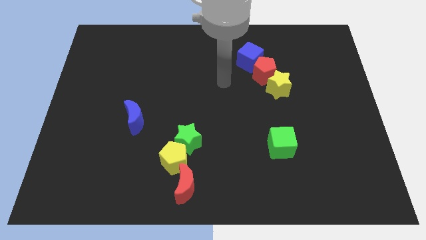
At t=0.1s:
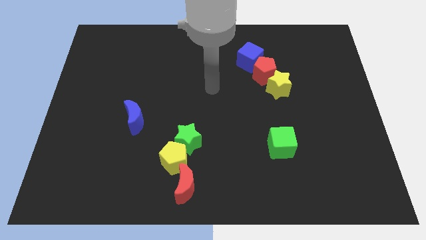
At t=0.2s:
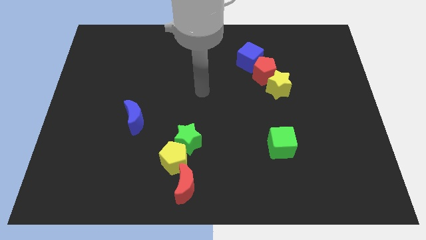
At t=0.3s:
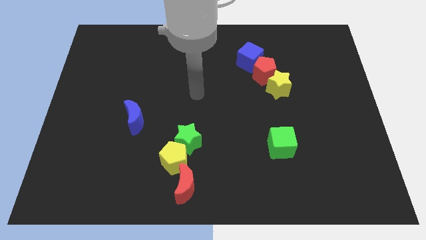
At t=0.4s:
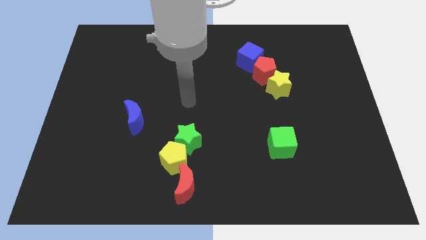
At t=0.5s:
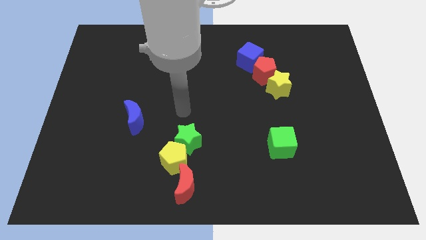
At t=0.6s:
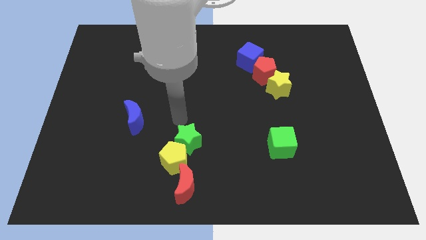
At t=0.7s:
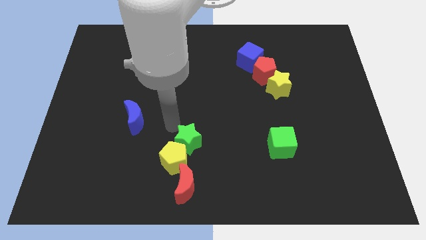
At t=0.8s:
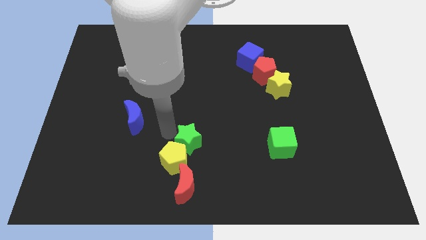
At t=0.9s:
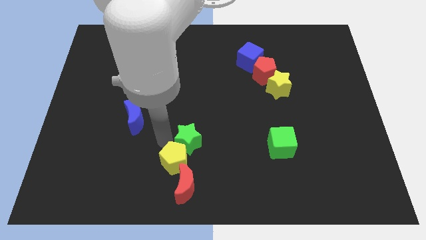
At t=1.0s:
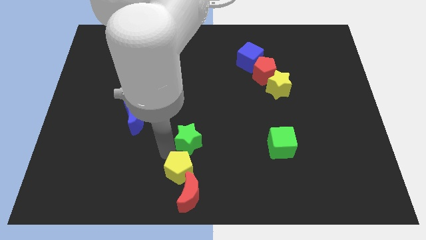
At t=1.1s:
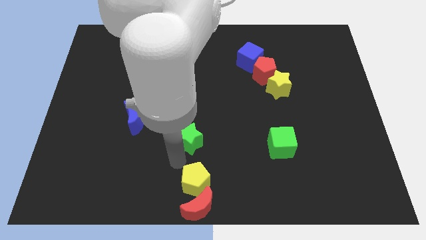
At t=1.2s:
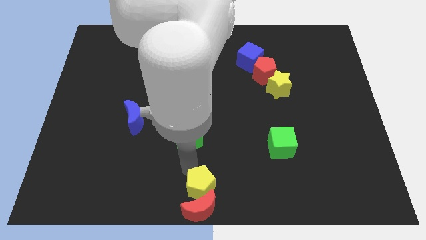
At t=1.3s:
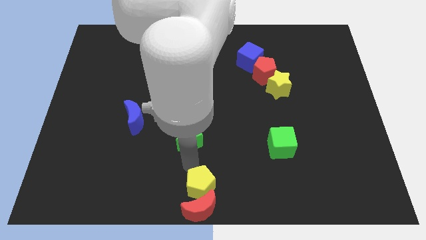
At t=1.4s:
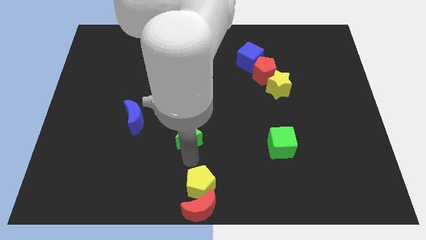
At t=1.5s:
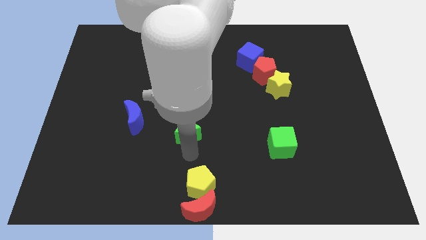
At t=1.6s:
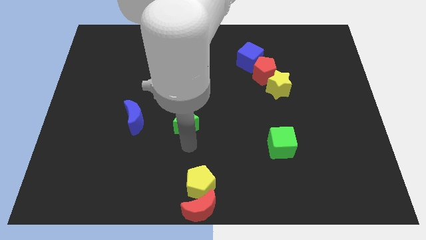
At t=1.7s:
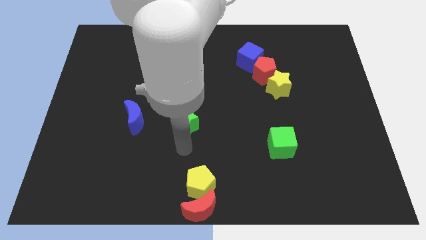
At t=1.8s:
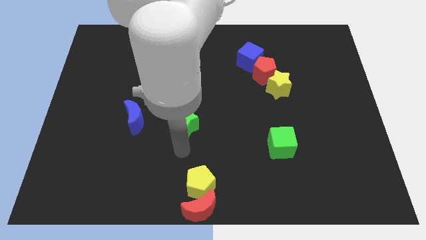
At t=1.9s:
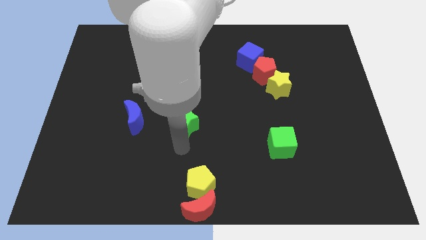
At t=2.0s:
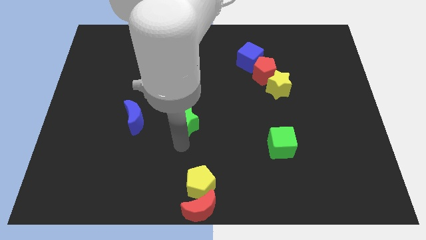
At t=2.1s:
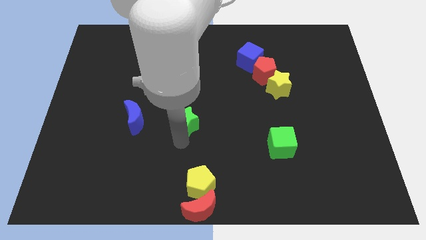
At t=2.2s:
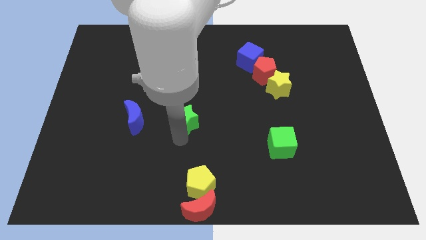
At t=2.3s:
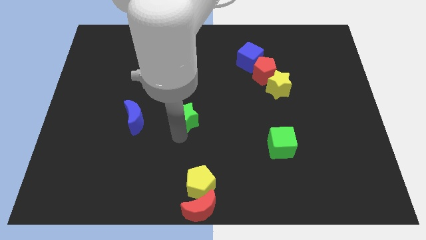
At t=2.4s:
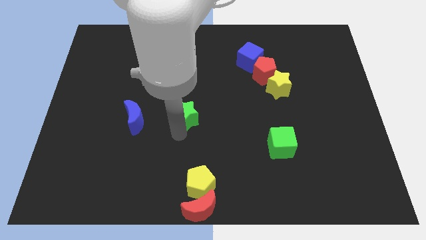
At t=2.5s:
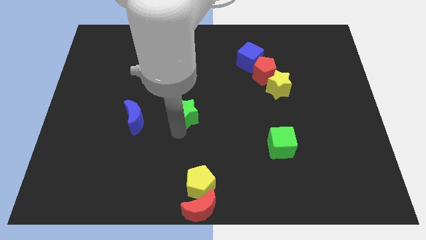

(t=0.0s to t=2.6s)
slightly push the green star up

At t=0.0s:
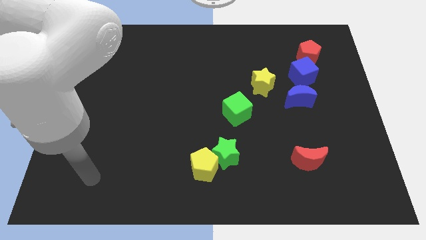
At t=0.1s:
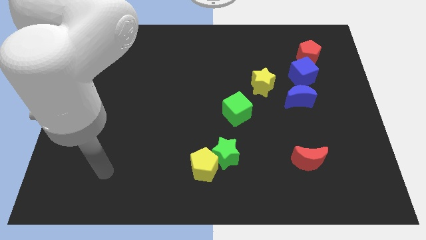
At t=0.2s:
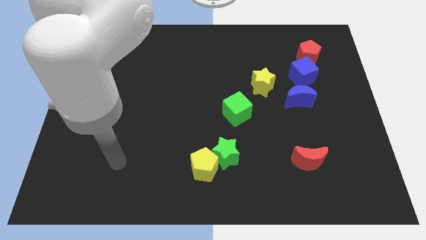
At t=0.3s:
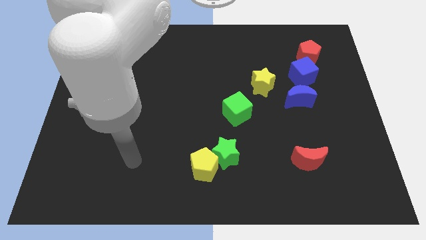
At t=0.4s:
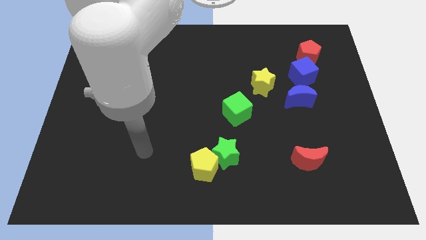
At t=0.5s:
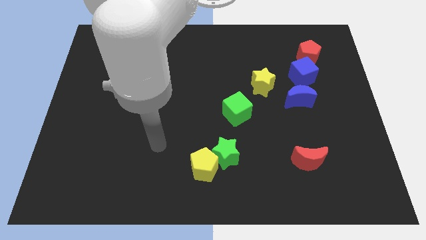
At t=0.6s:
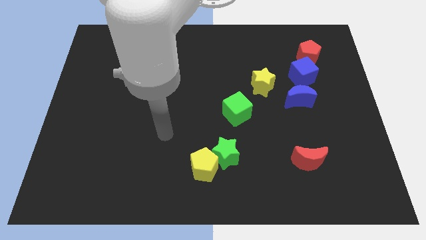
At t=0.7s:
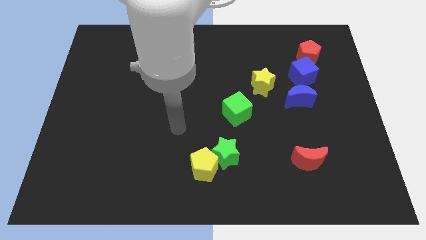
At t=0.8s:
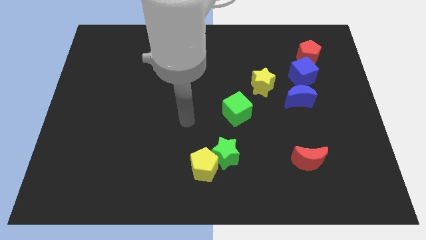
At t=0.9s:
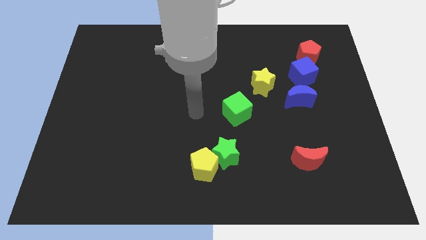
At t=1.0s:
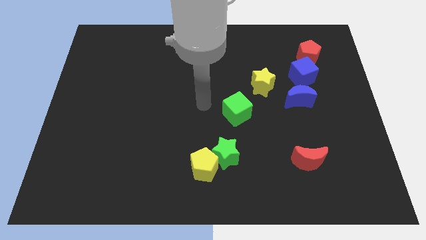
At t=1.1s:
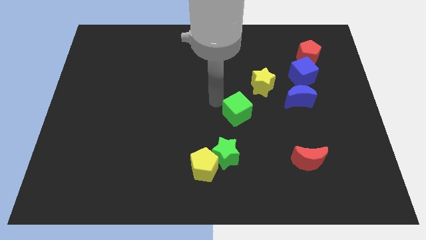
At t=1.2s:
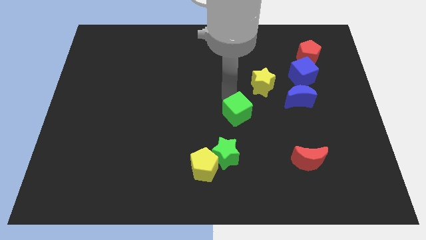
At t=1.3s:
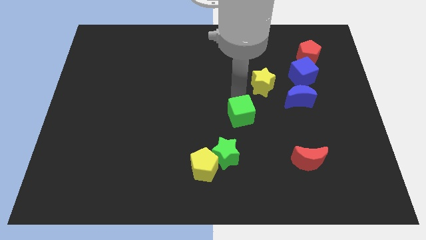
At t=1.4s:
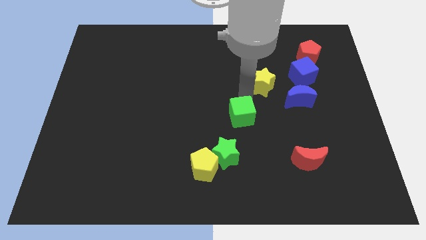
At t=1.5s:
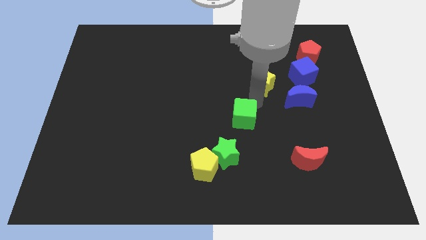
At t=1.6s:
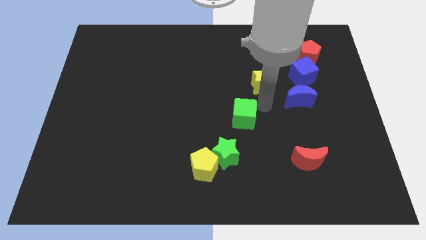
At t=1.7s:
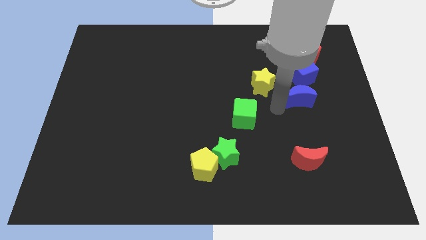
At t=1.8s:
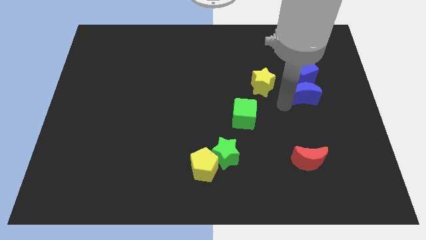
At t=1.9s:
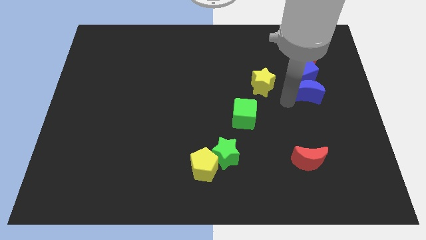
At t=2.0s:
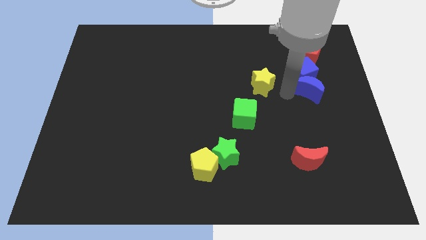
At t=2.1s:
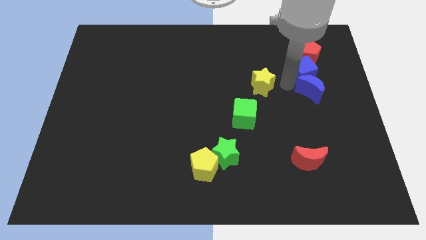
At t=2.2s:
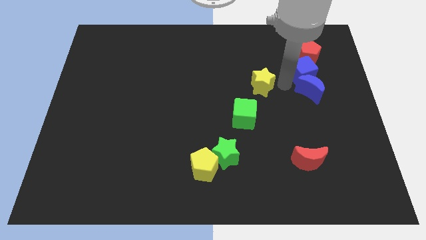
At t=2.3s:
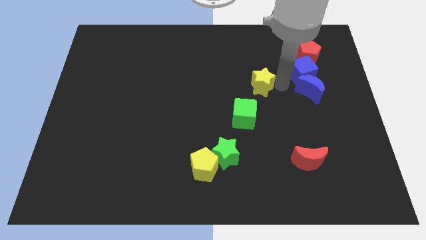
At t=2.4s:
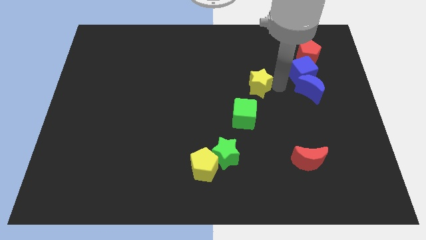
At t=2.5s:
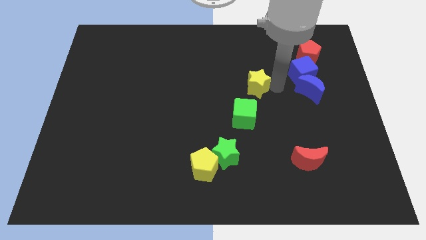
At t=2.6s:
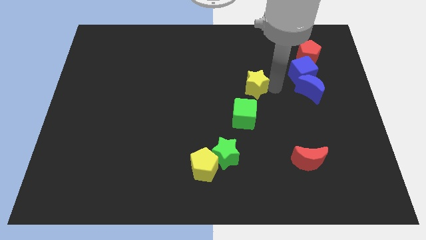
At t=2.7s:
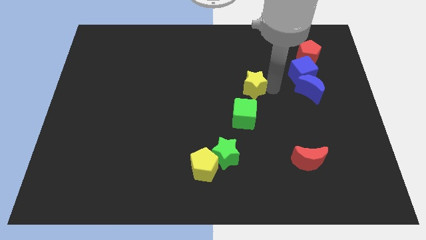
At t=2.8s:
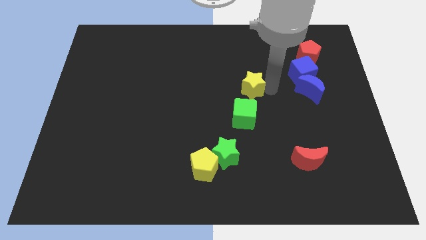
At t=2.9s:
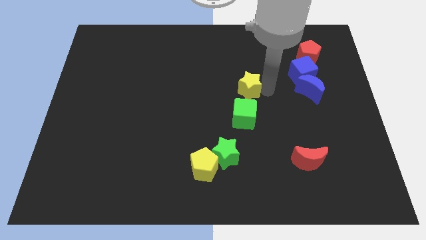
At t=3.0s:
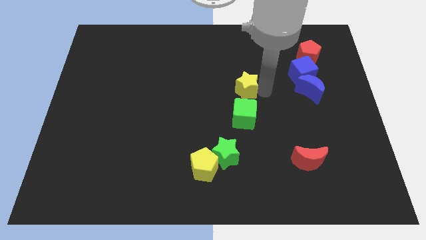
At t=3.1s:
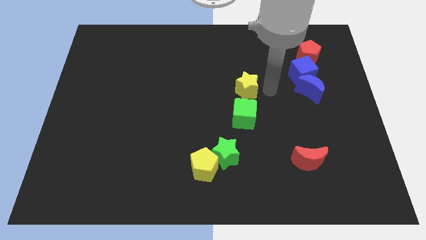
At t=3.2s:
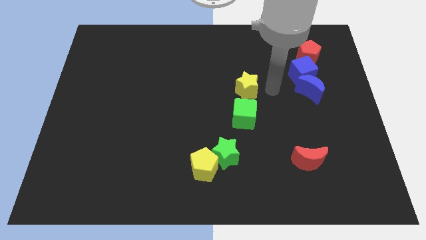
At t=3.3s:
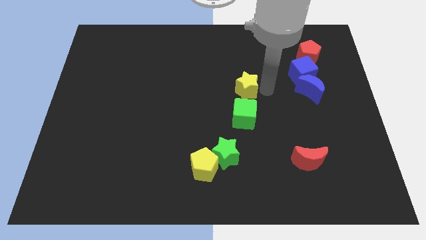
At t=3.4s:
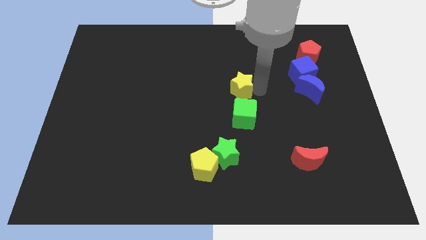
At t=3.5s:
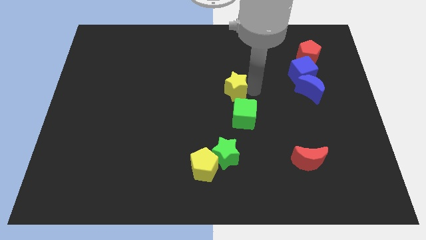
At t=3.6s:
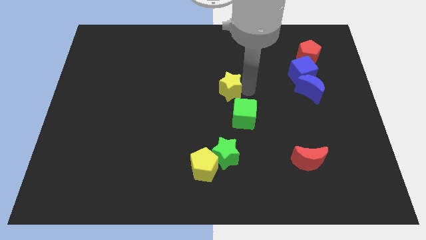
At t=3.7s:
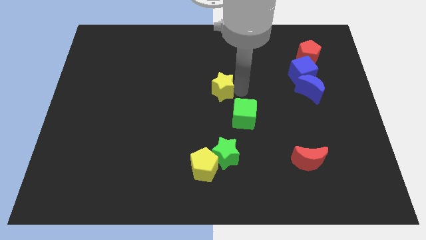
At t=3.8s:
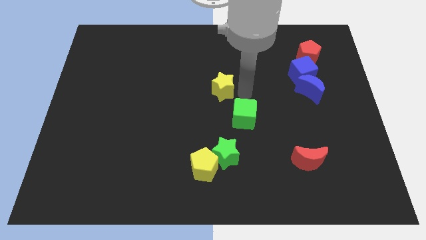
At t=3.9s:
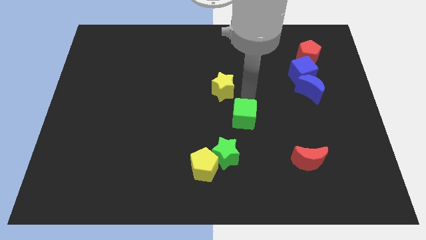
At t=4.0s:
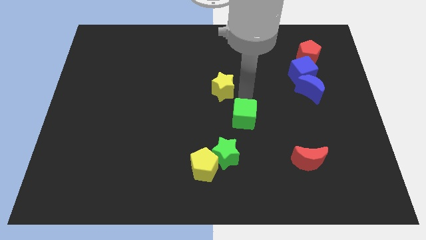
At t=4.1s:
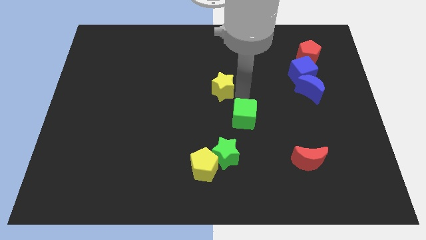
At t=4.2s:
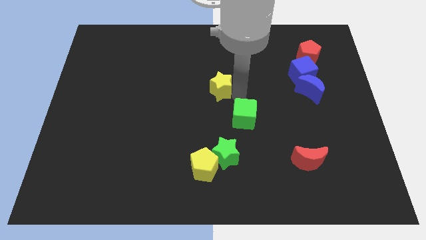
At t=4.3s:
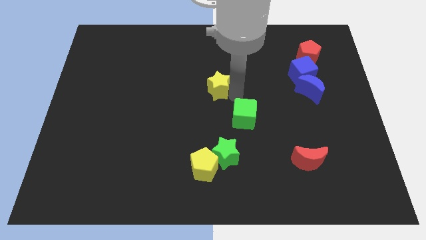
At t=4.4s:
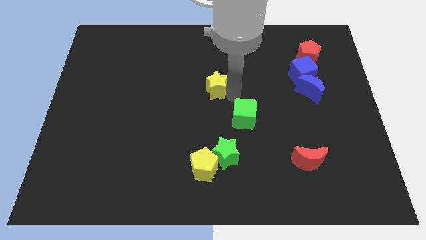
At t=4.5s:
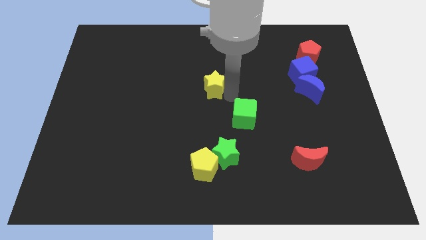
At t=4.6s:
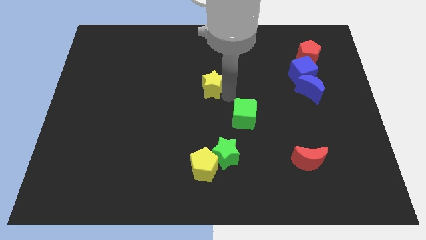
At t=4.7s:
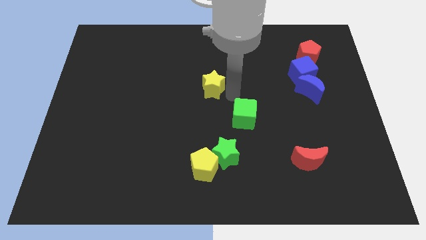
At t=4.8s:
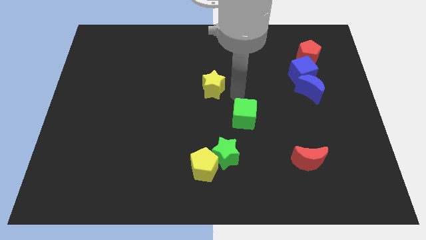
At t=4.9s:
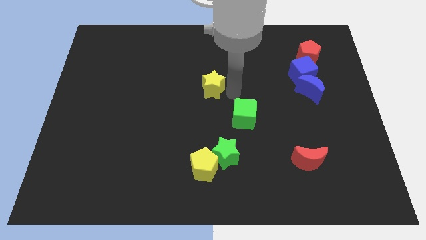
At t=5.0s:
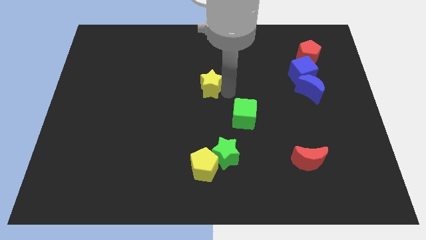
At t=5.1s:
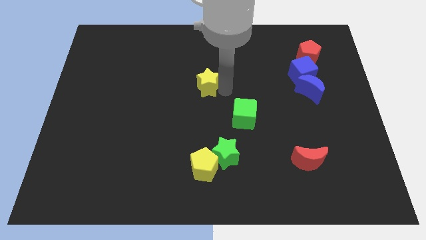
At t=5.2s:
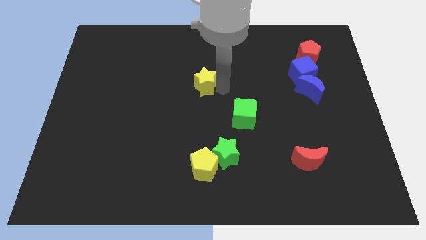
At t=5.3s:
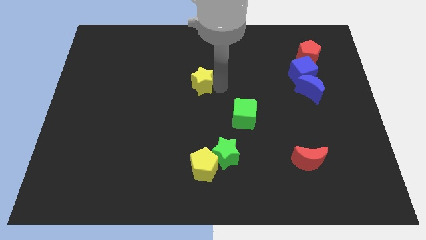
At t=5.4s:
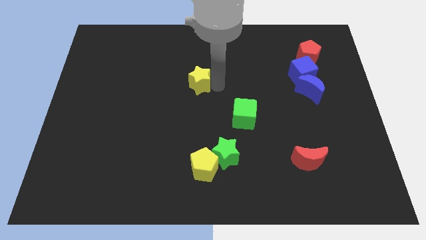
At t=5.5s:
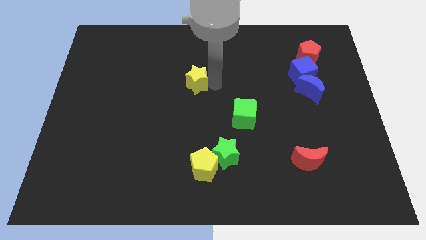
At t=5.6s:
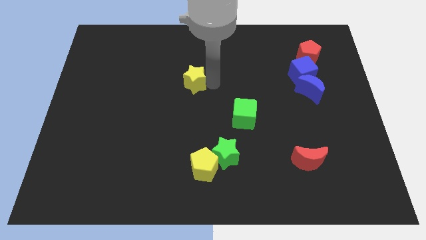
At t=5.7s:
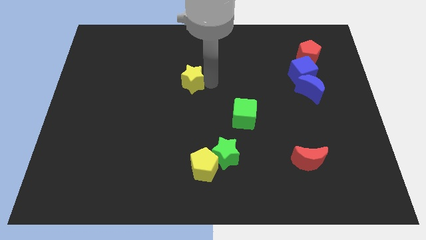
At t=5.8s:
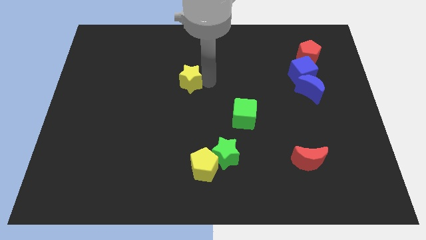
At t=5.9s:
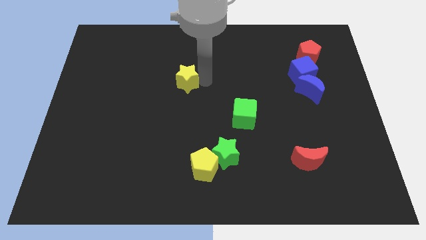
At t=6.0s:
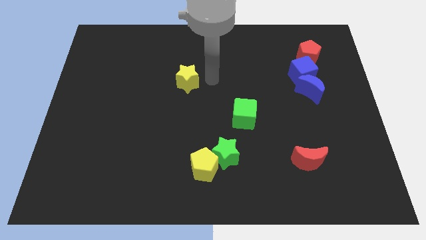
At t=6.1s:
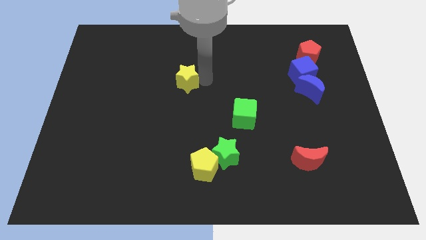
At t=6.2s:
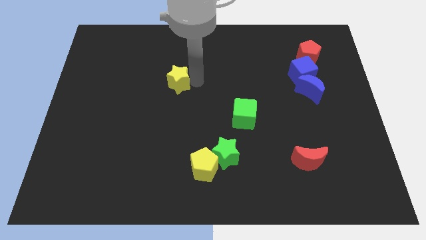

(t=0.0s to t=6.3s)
move the yellow star to the left
